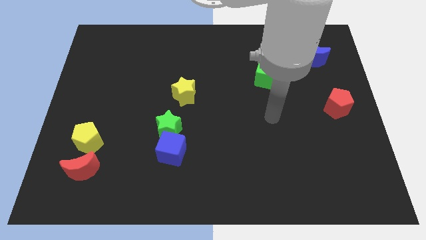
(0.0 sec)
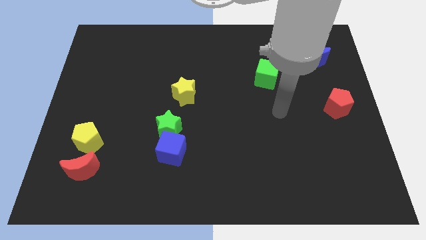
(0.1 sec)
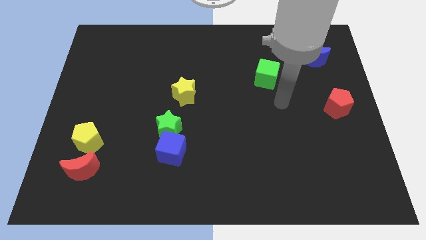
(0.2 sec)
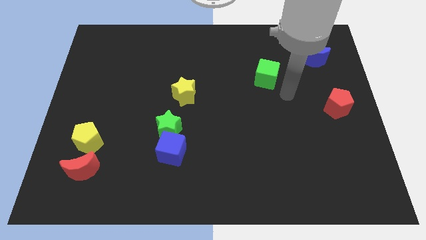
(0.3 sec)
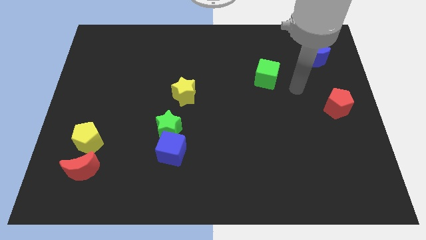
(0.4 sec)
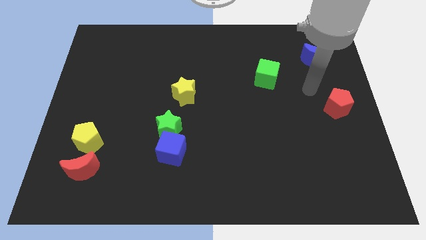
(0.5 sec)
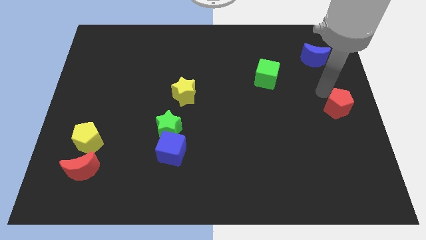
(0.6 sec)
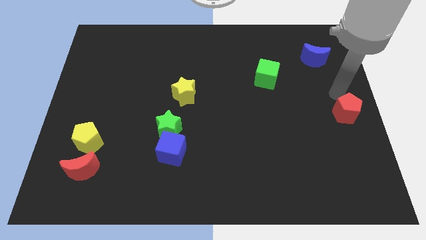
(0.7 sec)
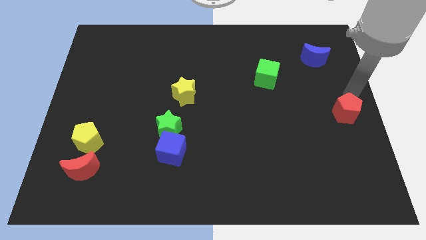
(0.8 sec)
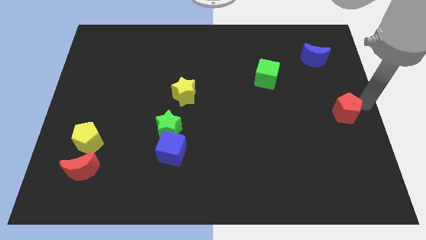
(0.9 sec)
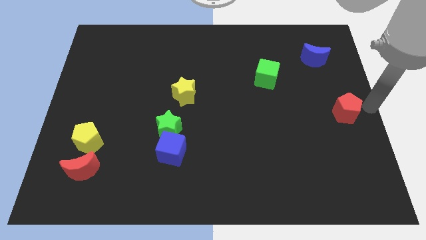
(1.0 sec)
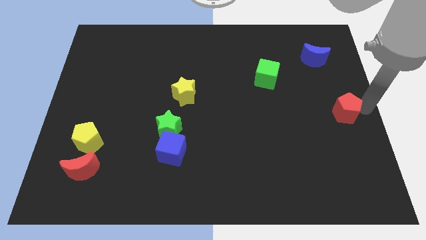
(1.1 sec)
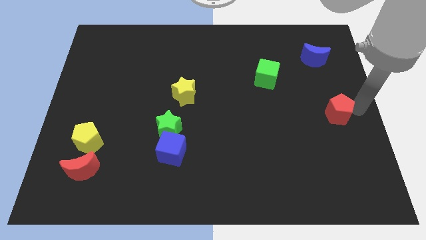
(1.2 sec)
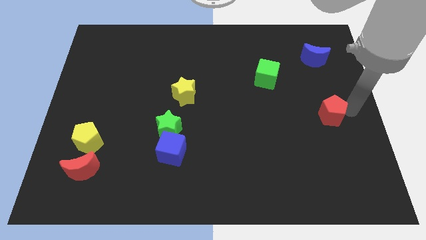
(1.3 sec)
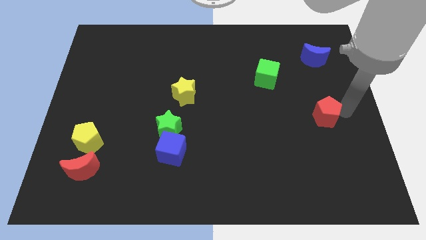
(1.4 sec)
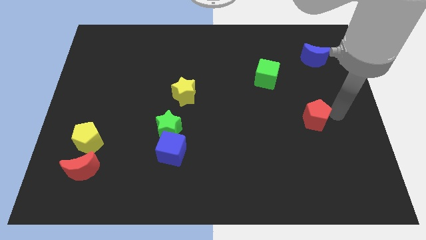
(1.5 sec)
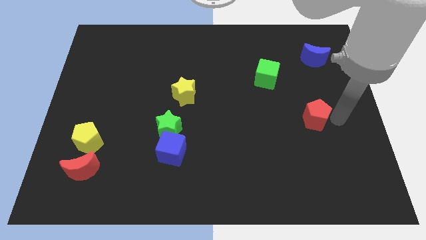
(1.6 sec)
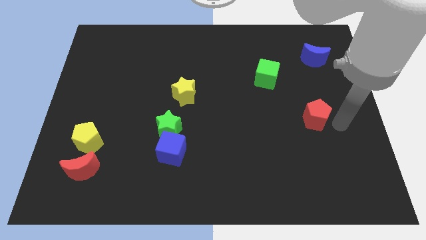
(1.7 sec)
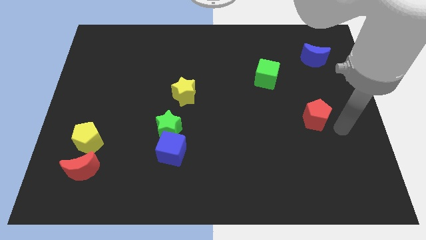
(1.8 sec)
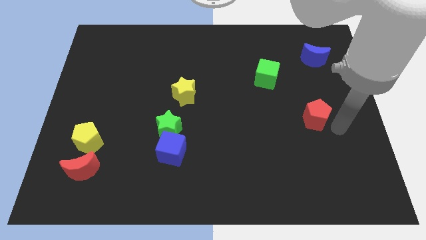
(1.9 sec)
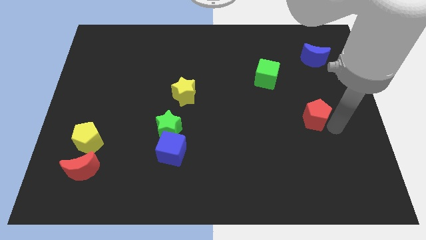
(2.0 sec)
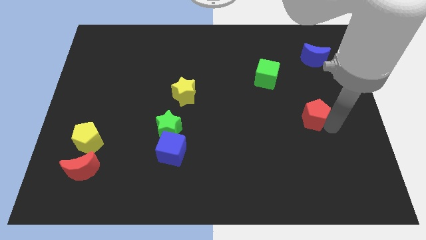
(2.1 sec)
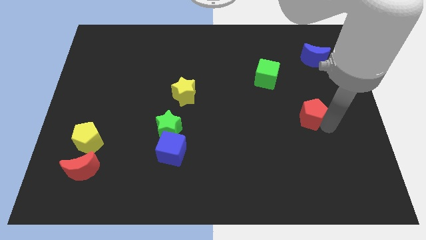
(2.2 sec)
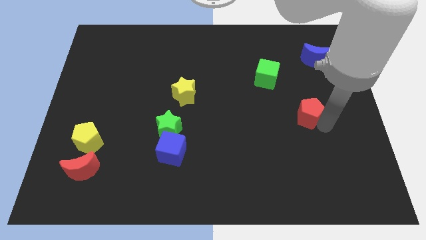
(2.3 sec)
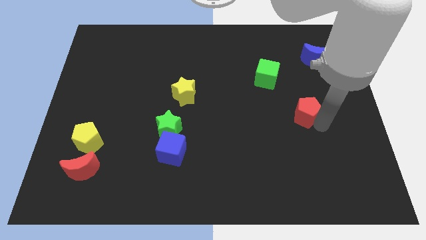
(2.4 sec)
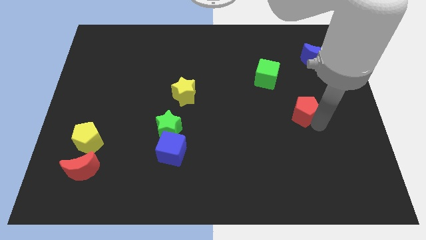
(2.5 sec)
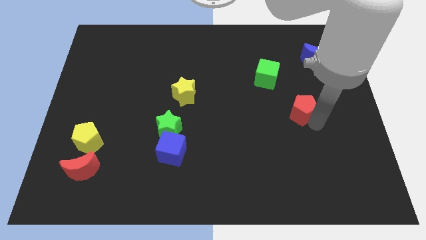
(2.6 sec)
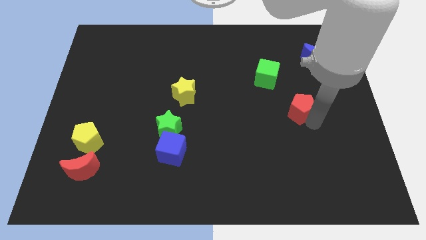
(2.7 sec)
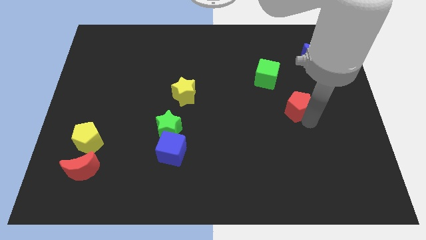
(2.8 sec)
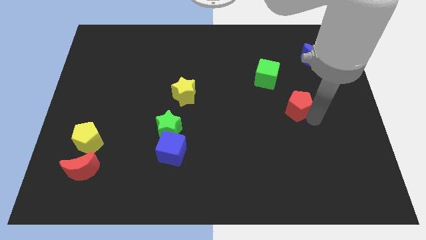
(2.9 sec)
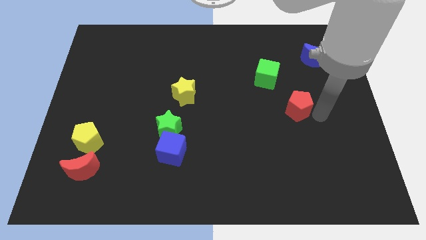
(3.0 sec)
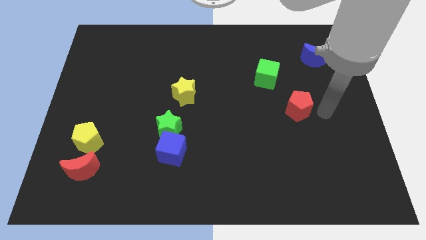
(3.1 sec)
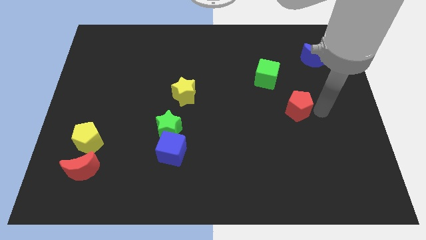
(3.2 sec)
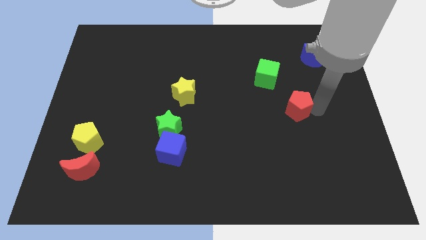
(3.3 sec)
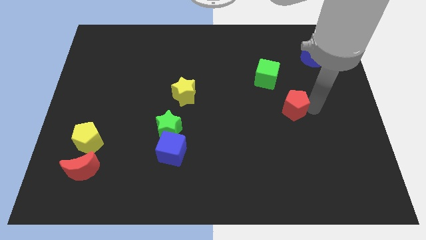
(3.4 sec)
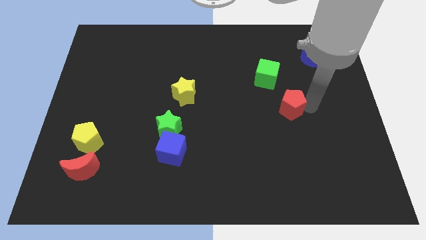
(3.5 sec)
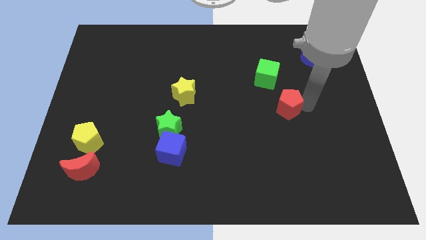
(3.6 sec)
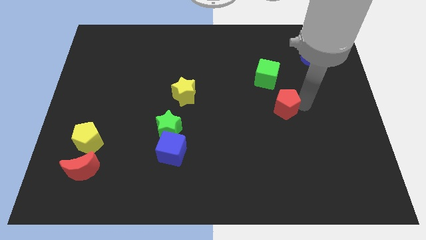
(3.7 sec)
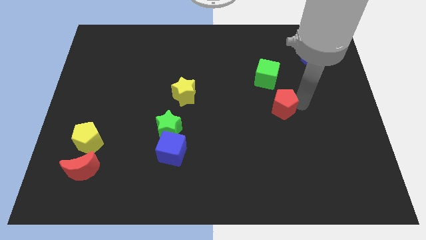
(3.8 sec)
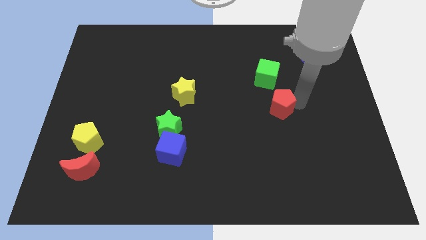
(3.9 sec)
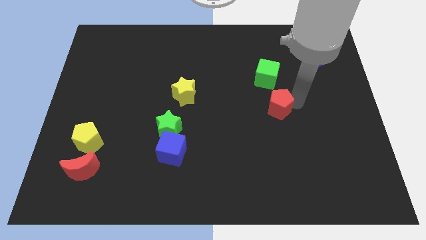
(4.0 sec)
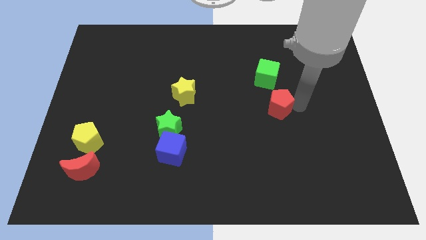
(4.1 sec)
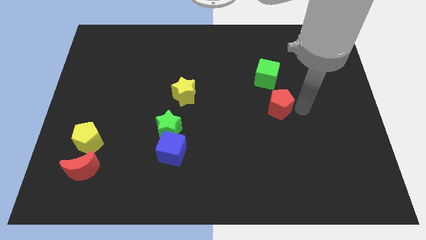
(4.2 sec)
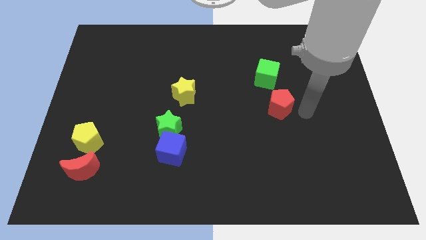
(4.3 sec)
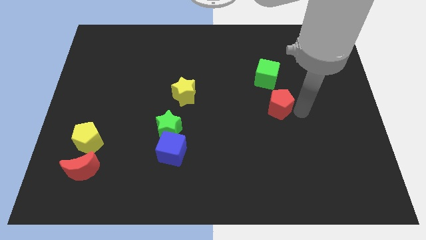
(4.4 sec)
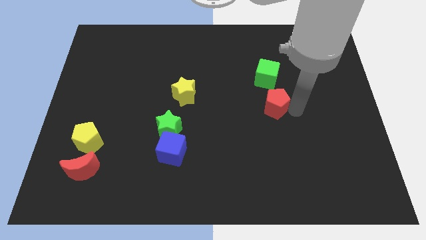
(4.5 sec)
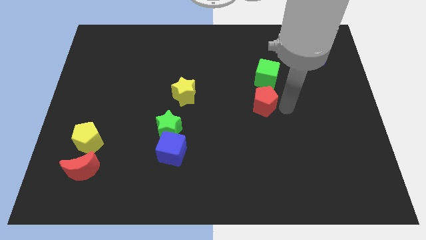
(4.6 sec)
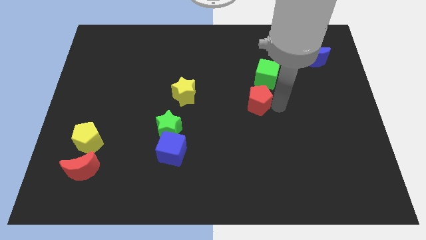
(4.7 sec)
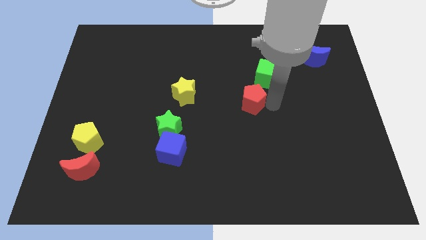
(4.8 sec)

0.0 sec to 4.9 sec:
move the red pentagon left

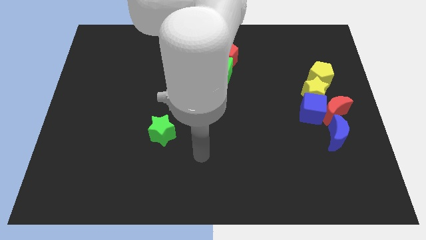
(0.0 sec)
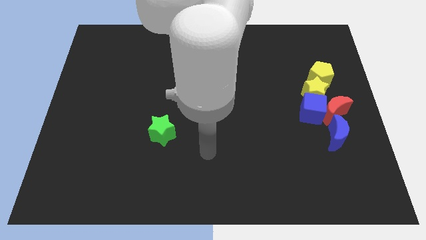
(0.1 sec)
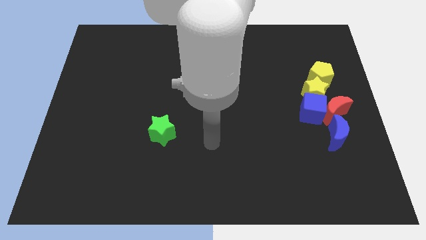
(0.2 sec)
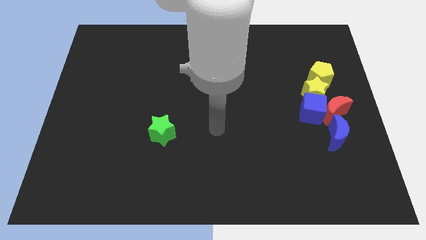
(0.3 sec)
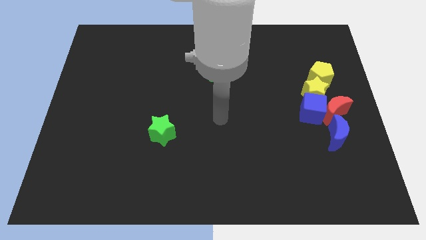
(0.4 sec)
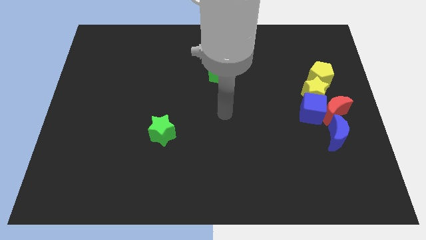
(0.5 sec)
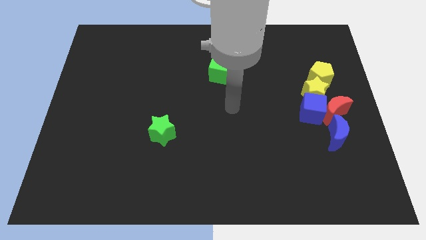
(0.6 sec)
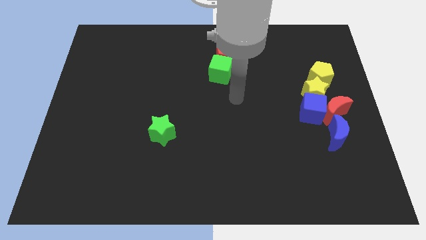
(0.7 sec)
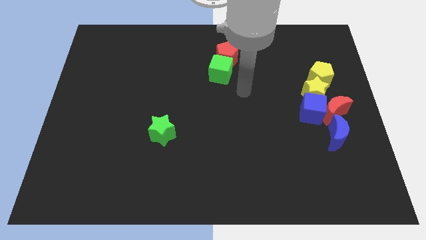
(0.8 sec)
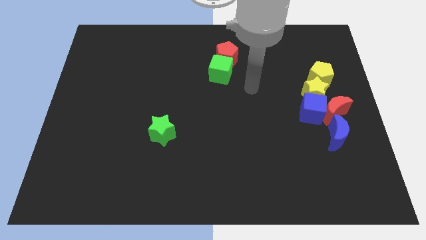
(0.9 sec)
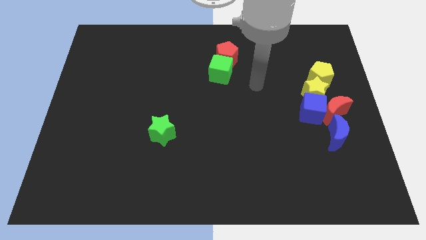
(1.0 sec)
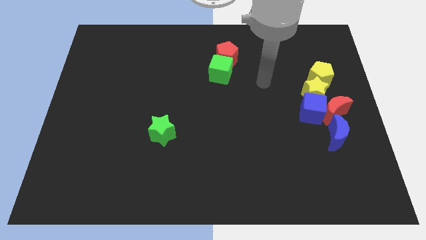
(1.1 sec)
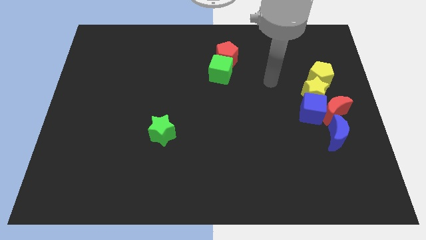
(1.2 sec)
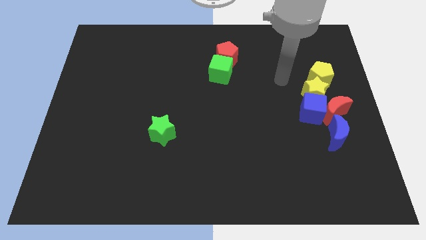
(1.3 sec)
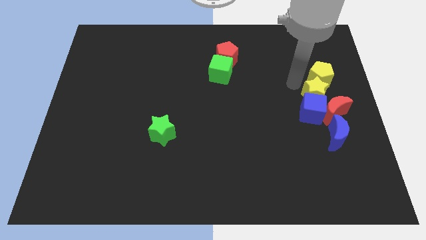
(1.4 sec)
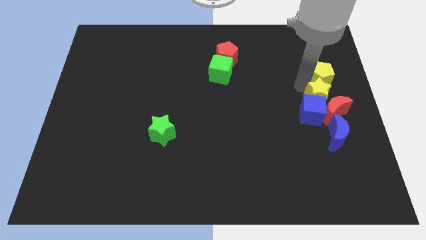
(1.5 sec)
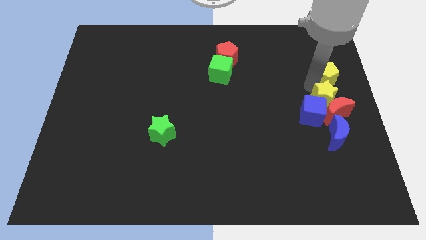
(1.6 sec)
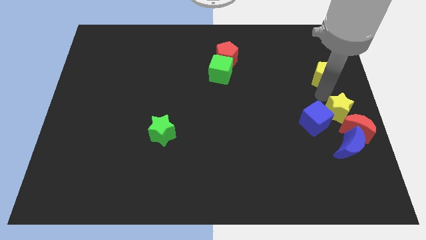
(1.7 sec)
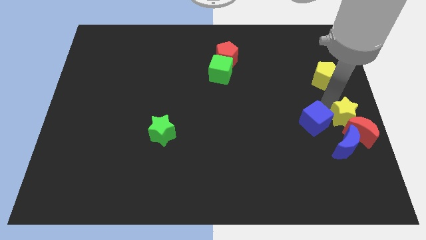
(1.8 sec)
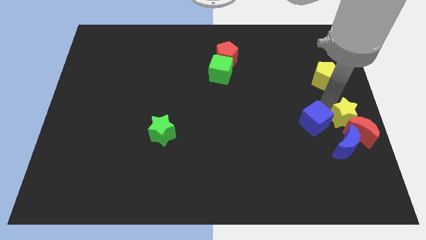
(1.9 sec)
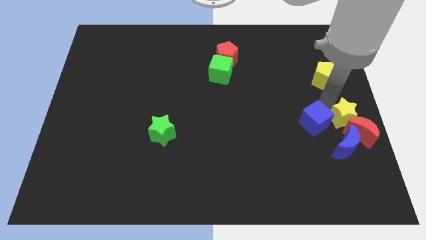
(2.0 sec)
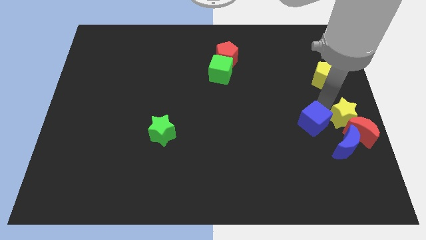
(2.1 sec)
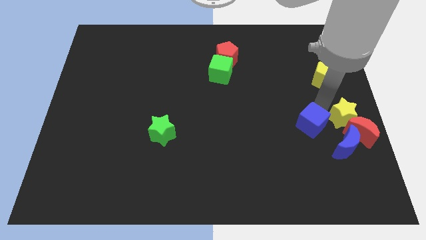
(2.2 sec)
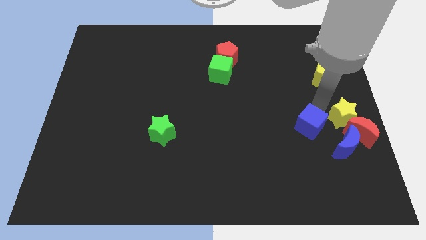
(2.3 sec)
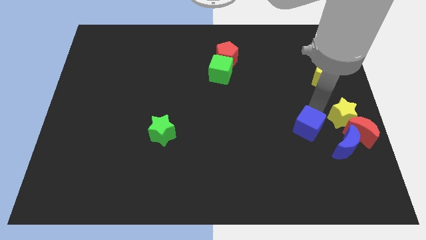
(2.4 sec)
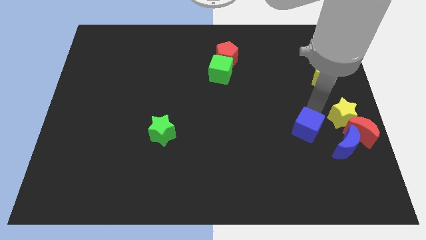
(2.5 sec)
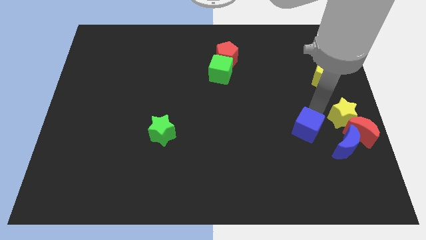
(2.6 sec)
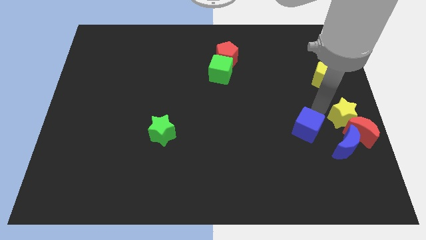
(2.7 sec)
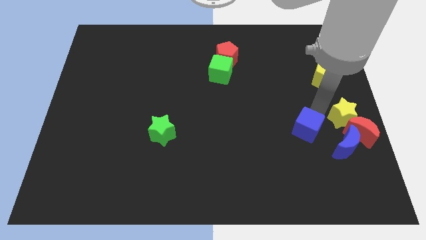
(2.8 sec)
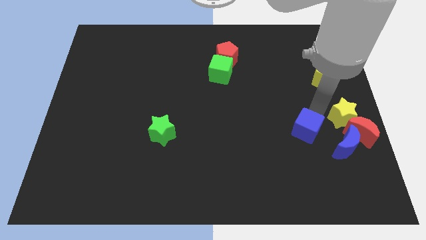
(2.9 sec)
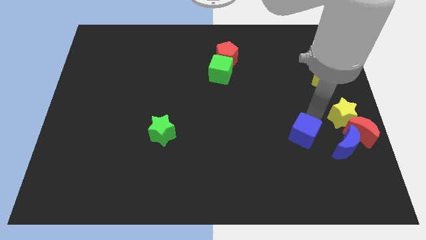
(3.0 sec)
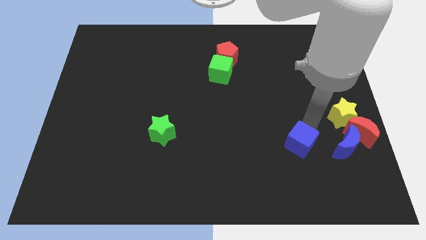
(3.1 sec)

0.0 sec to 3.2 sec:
slide the blue cube a little diagonally downwards and to the left
